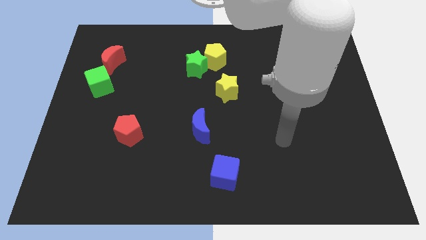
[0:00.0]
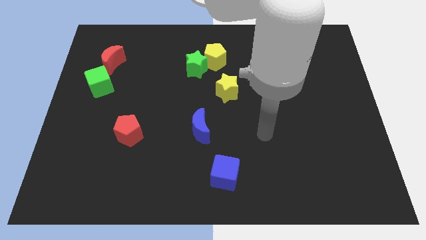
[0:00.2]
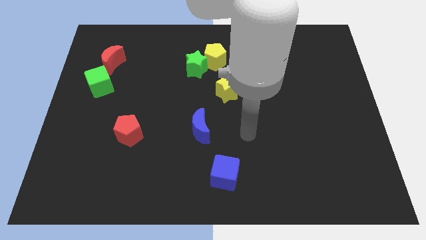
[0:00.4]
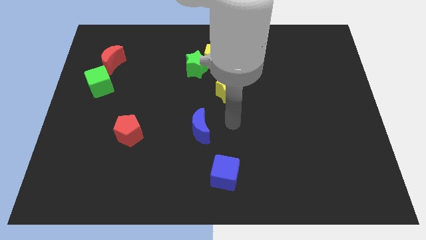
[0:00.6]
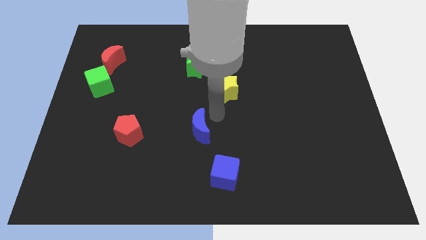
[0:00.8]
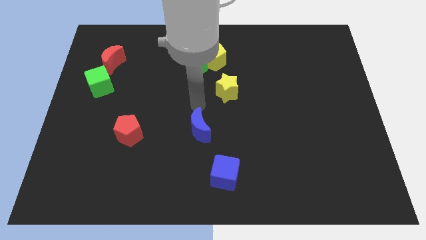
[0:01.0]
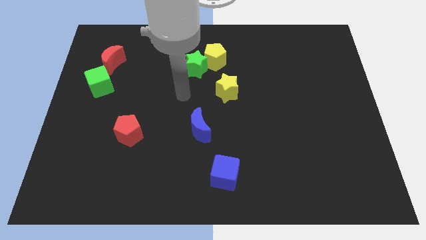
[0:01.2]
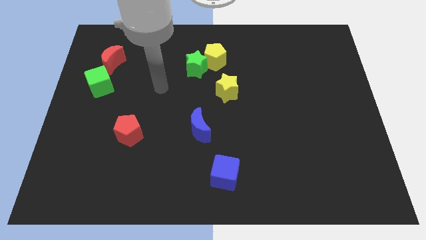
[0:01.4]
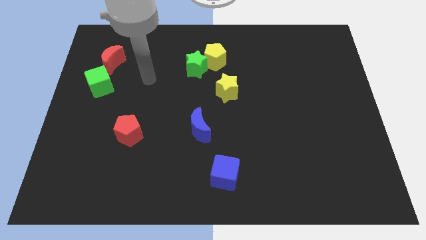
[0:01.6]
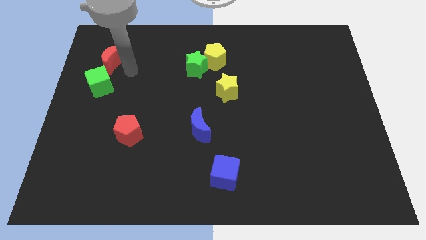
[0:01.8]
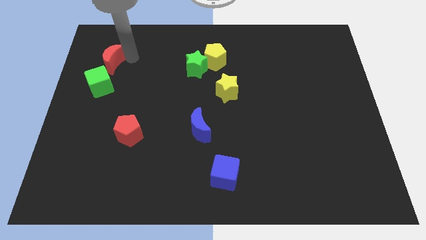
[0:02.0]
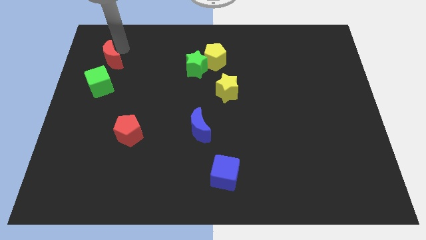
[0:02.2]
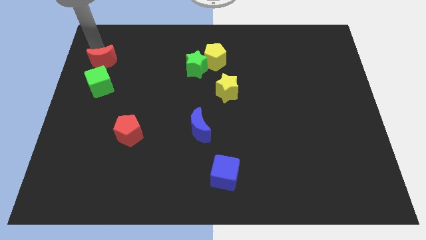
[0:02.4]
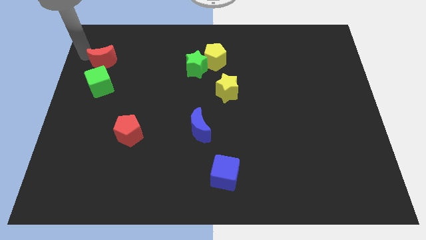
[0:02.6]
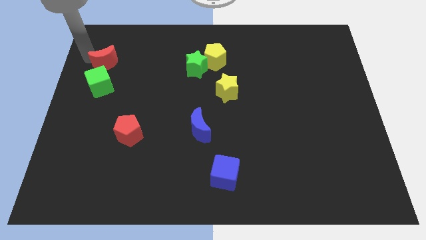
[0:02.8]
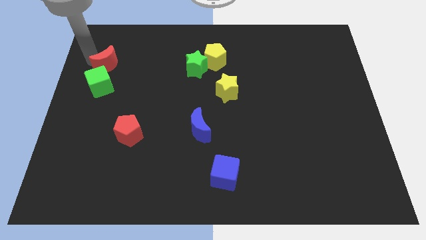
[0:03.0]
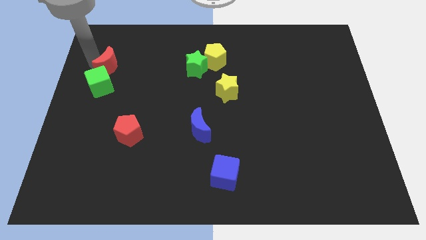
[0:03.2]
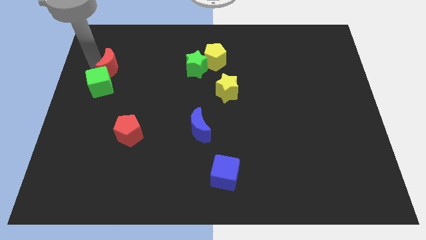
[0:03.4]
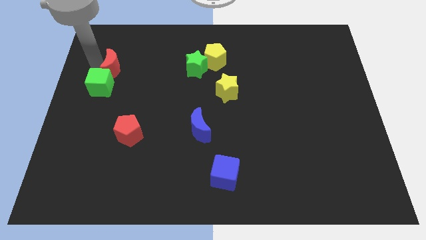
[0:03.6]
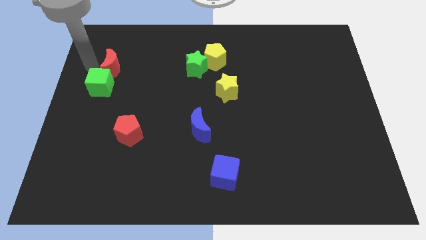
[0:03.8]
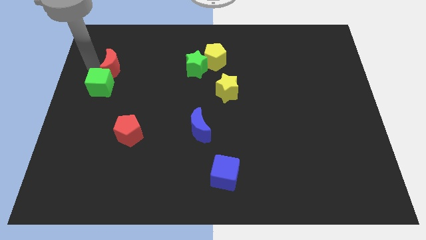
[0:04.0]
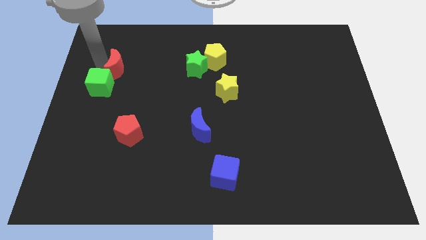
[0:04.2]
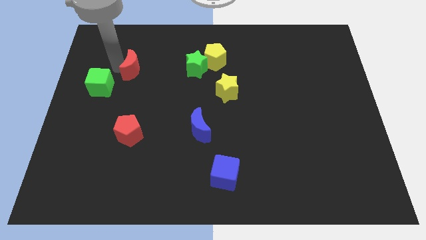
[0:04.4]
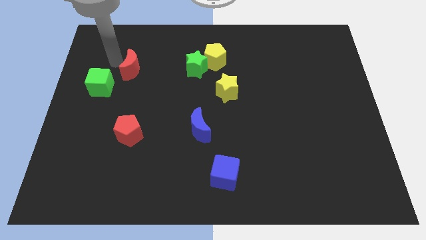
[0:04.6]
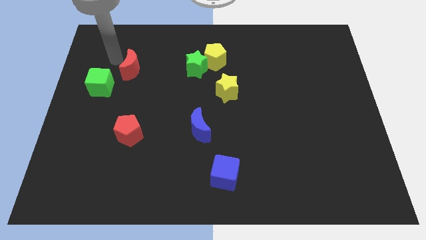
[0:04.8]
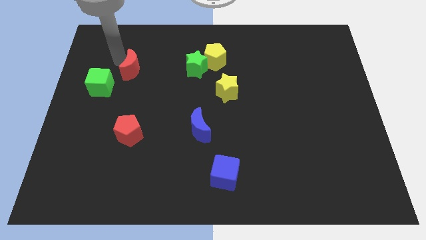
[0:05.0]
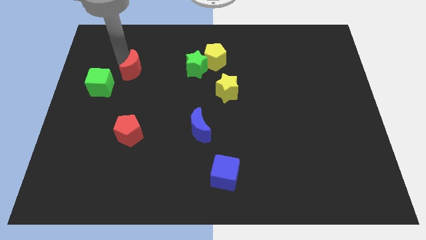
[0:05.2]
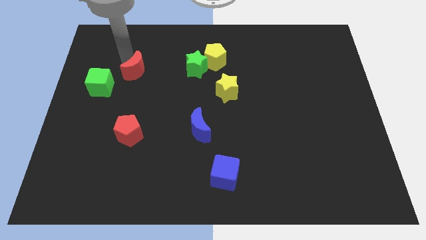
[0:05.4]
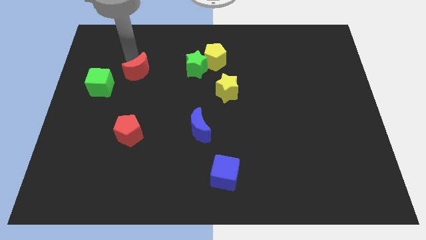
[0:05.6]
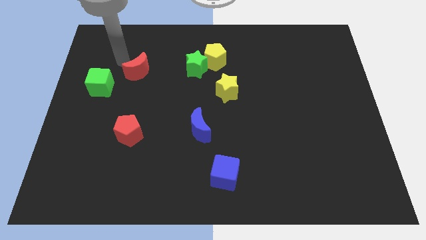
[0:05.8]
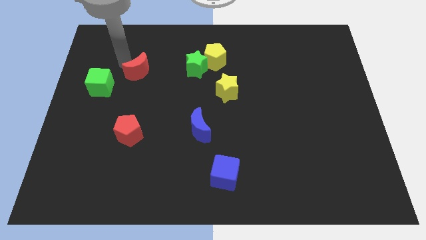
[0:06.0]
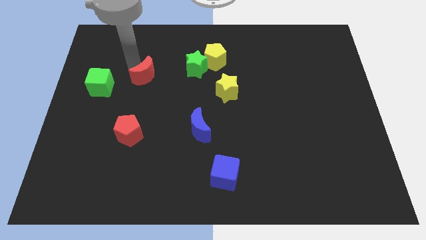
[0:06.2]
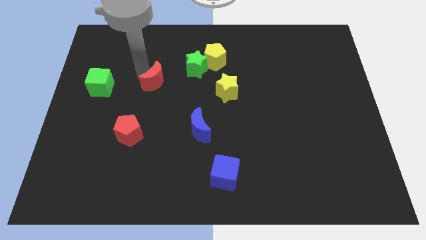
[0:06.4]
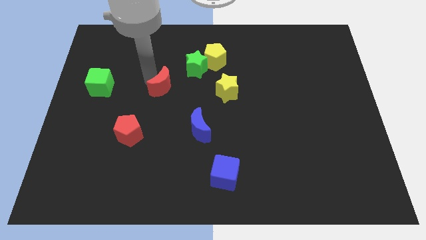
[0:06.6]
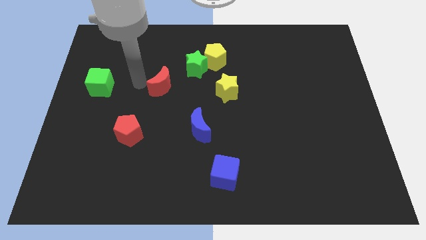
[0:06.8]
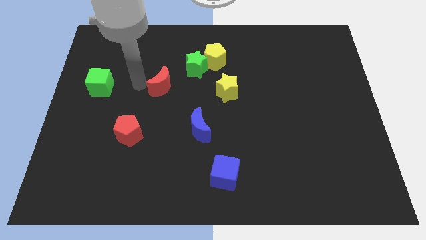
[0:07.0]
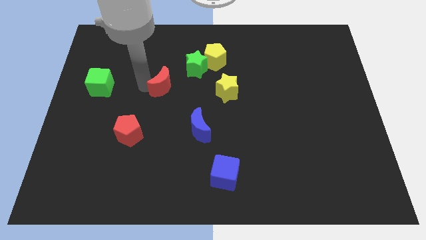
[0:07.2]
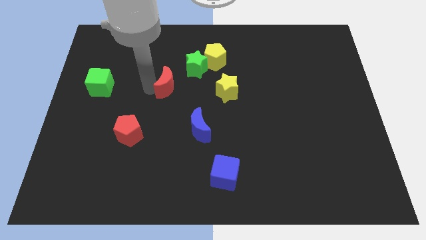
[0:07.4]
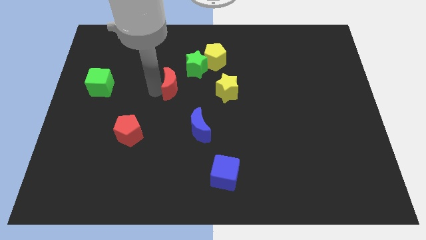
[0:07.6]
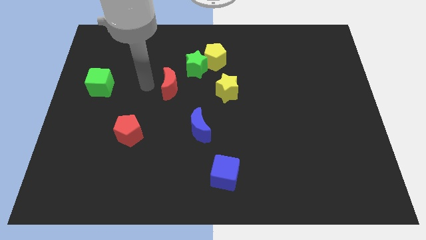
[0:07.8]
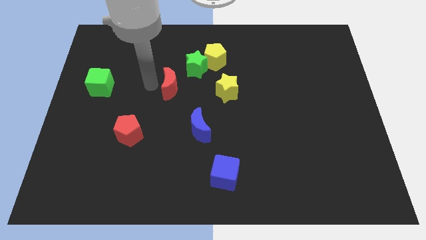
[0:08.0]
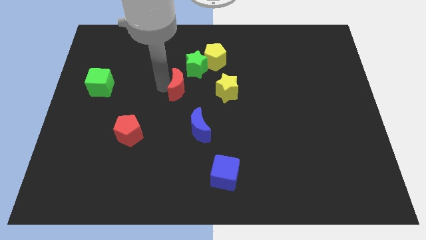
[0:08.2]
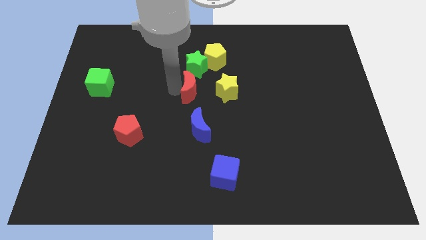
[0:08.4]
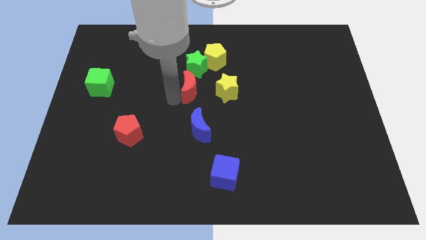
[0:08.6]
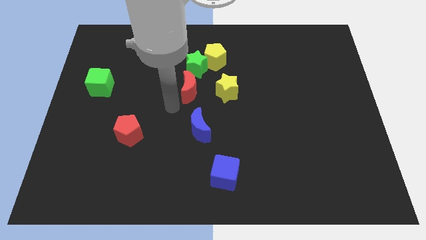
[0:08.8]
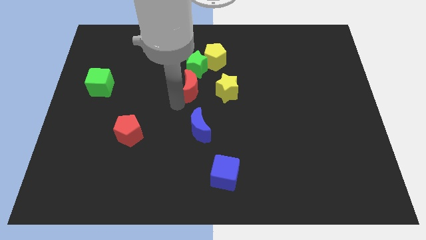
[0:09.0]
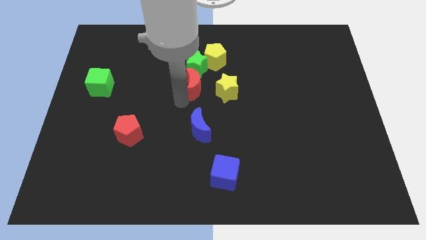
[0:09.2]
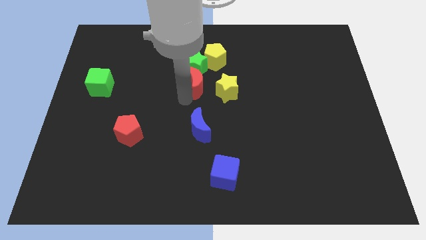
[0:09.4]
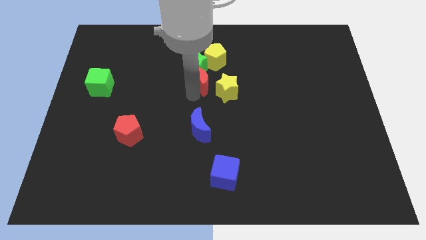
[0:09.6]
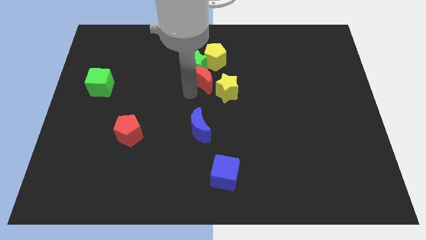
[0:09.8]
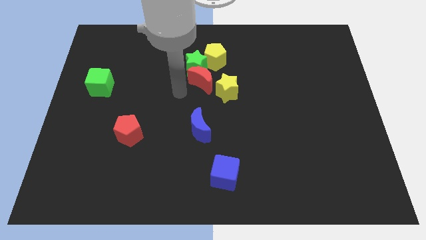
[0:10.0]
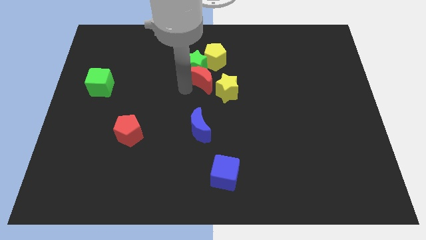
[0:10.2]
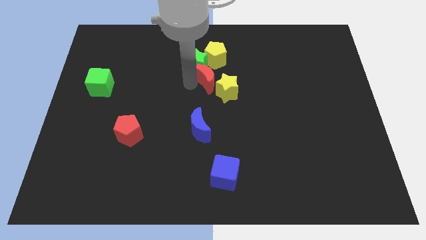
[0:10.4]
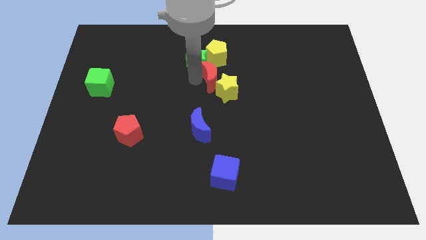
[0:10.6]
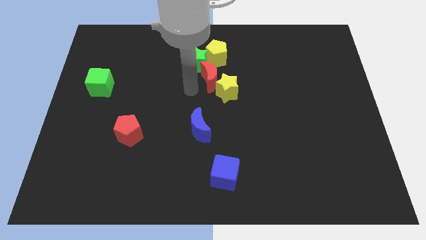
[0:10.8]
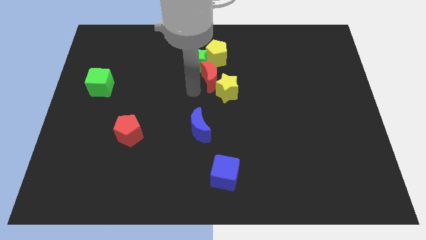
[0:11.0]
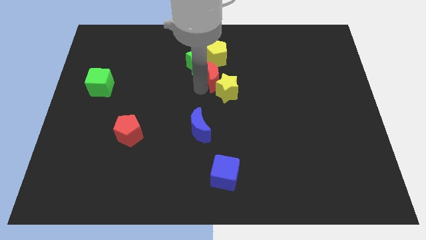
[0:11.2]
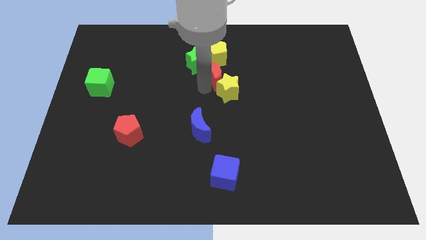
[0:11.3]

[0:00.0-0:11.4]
push the red moon to the right of the green star
